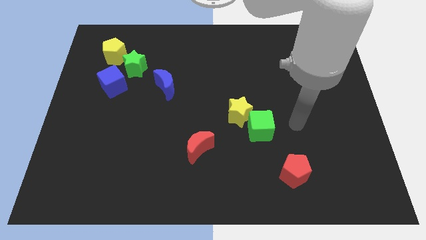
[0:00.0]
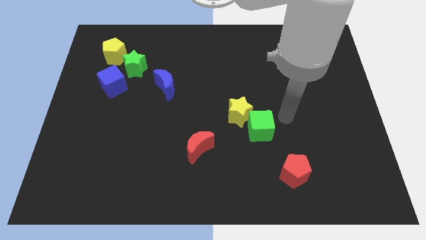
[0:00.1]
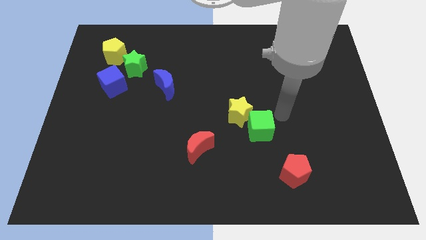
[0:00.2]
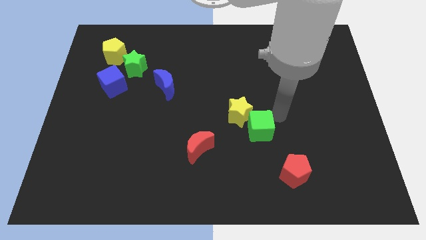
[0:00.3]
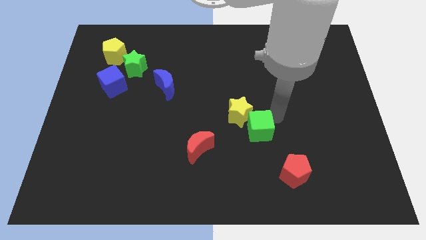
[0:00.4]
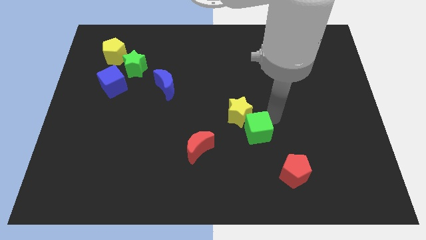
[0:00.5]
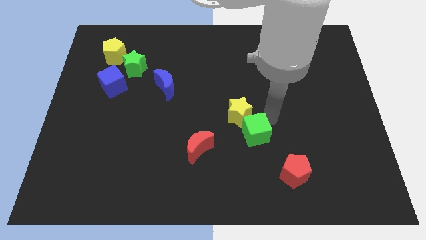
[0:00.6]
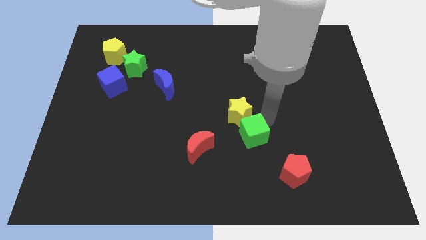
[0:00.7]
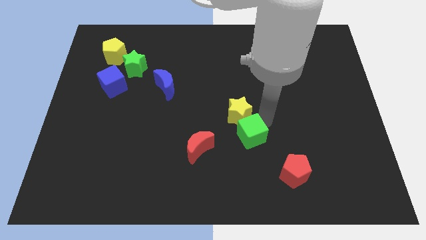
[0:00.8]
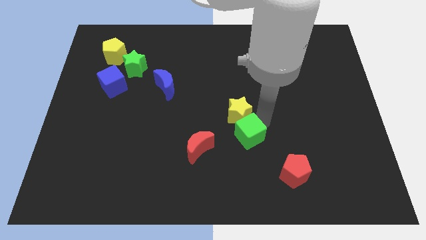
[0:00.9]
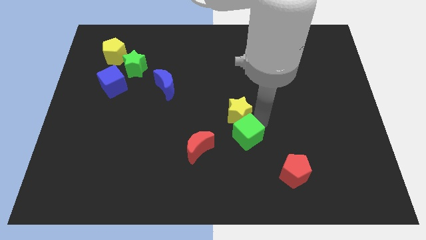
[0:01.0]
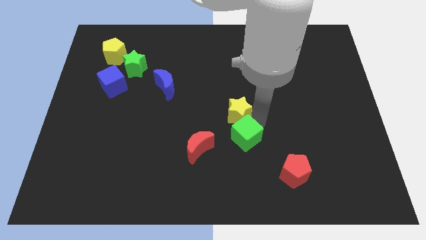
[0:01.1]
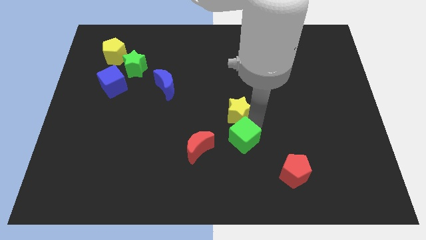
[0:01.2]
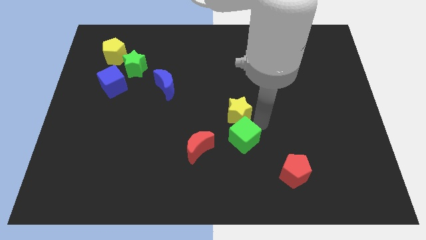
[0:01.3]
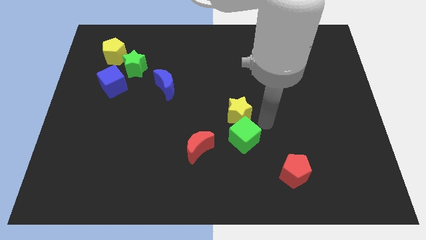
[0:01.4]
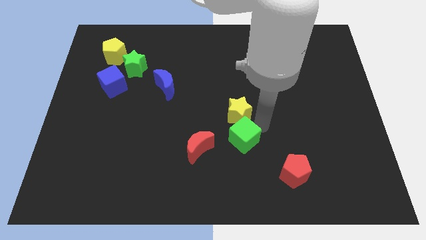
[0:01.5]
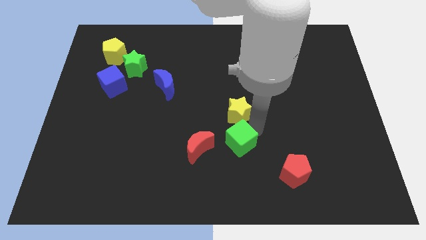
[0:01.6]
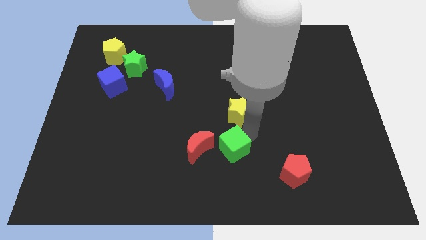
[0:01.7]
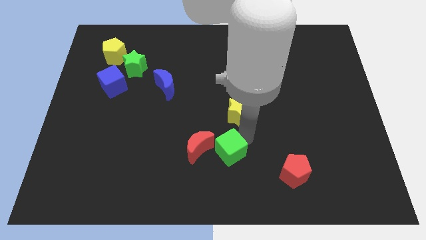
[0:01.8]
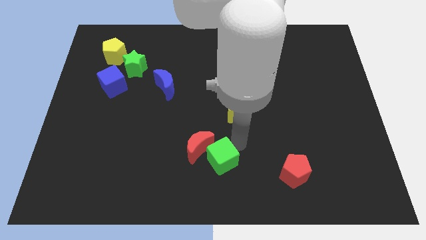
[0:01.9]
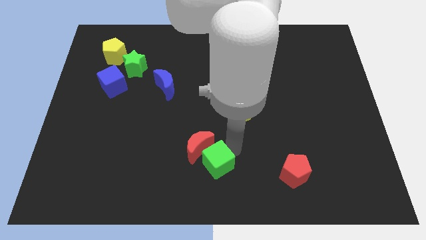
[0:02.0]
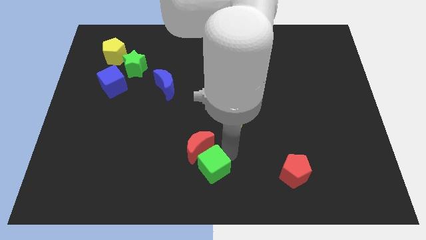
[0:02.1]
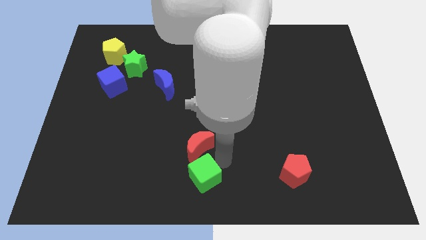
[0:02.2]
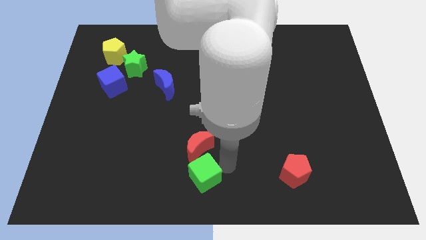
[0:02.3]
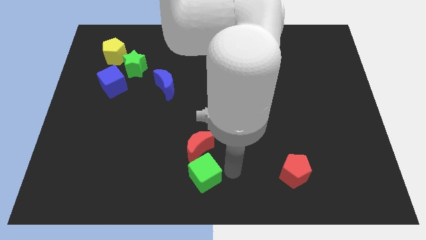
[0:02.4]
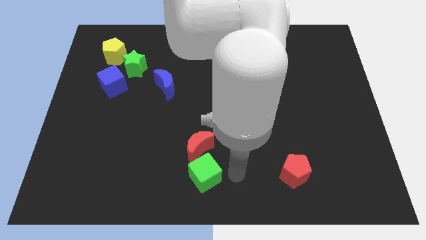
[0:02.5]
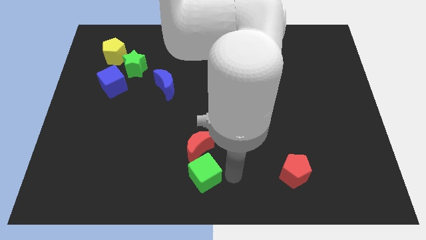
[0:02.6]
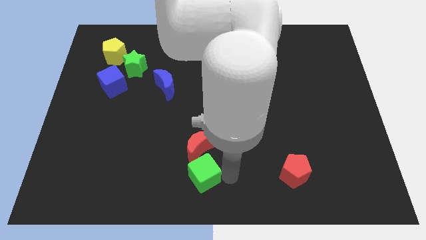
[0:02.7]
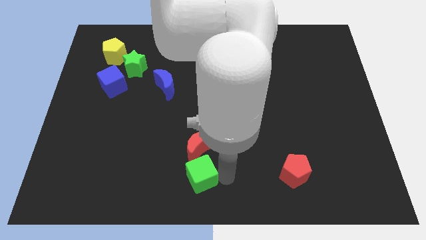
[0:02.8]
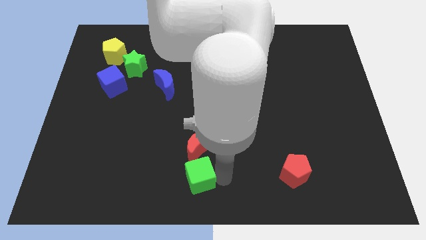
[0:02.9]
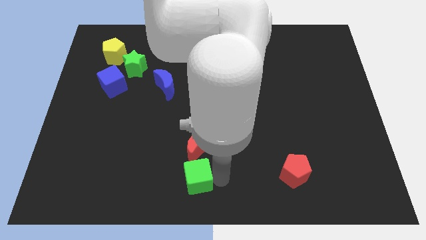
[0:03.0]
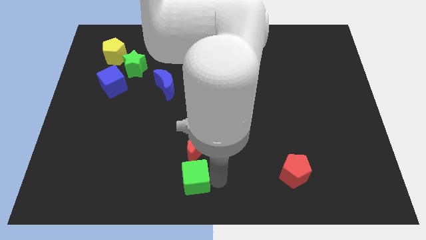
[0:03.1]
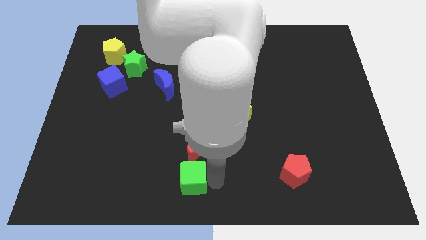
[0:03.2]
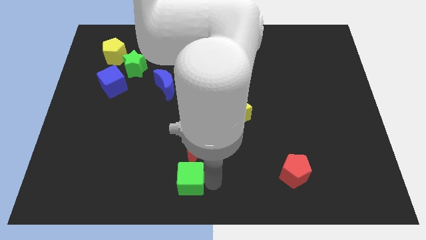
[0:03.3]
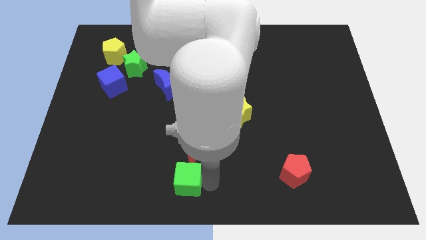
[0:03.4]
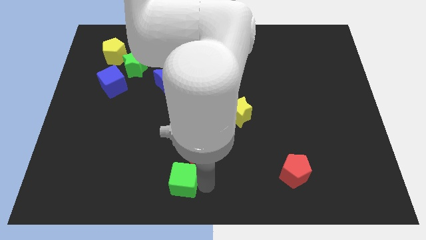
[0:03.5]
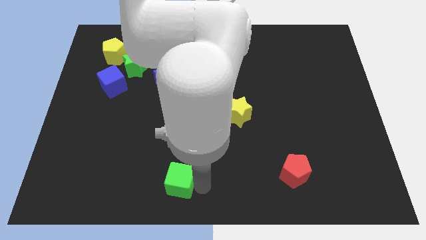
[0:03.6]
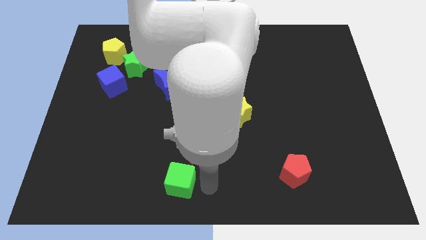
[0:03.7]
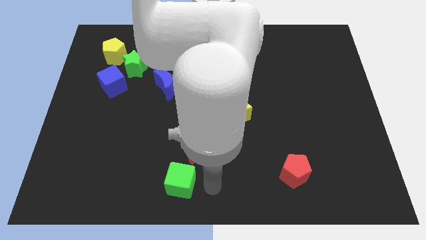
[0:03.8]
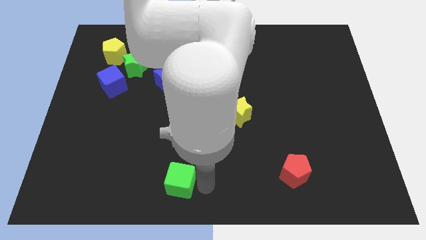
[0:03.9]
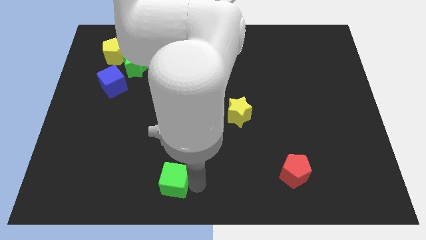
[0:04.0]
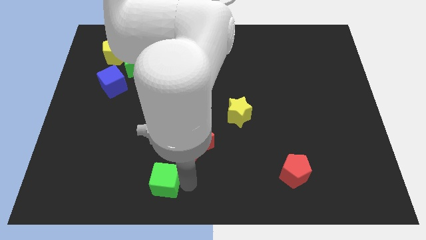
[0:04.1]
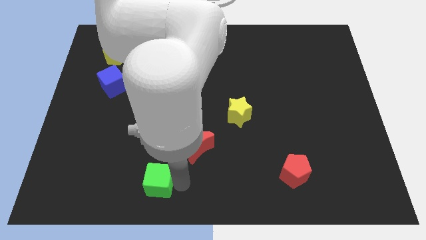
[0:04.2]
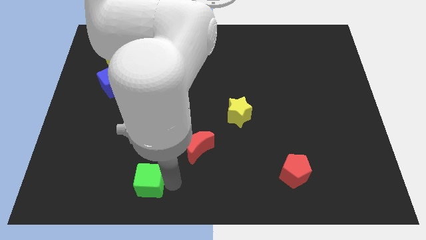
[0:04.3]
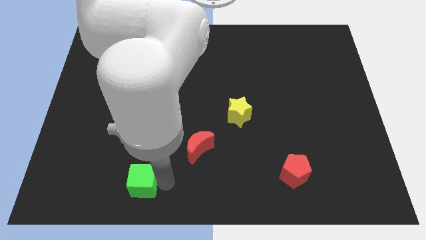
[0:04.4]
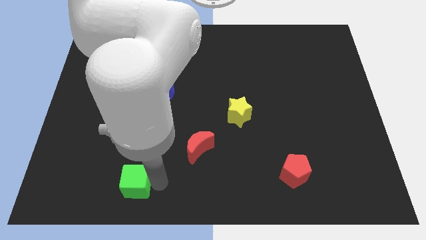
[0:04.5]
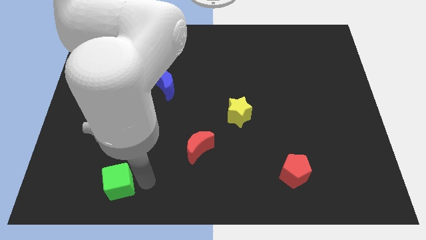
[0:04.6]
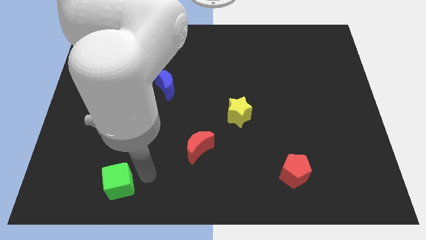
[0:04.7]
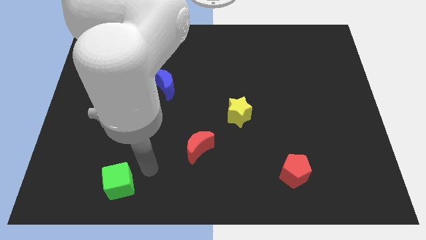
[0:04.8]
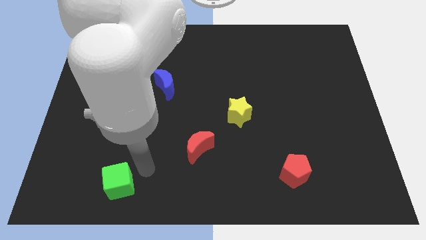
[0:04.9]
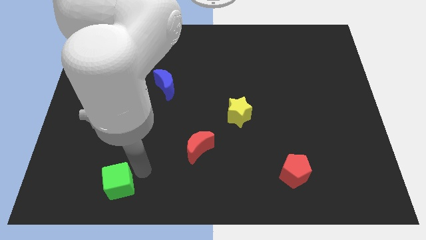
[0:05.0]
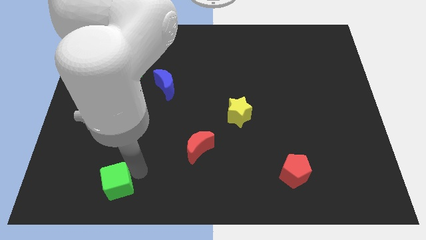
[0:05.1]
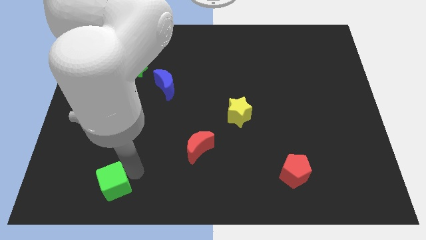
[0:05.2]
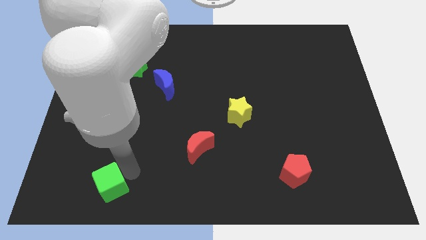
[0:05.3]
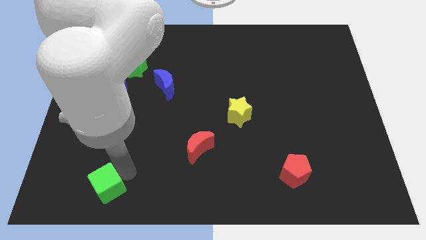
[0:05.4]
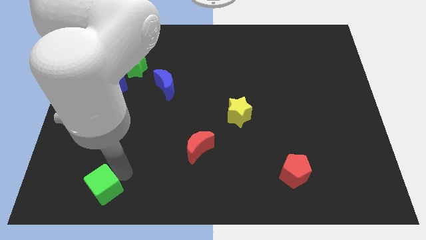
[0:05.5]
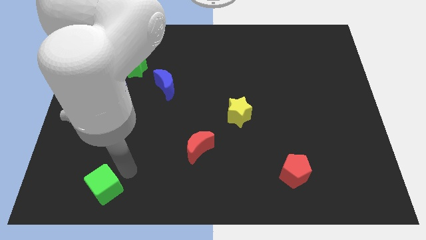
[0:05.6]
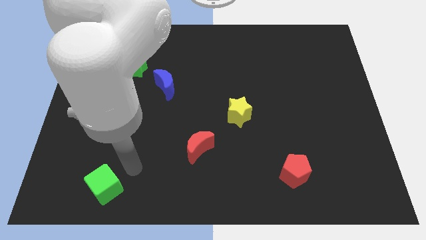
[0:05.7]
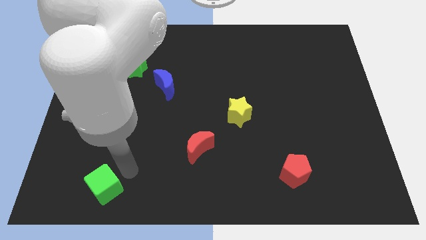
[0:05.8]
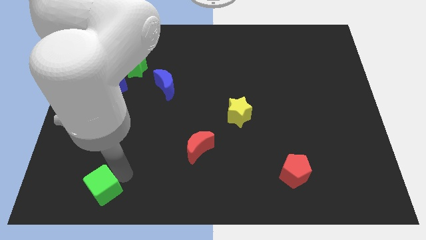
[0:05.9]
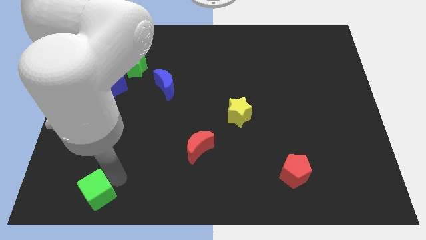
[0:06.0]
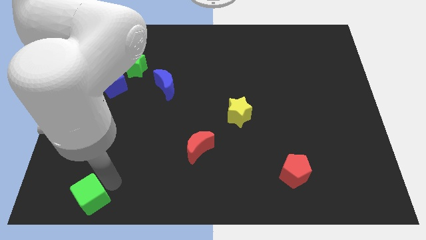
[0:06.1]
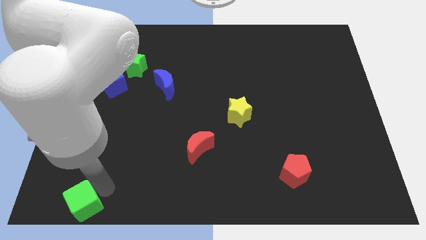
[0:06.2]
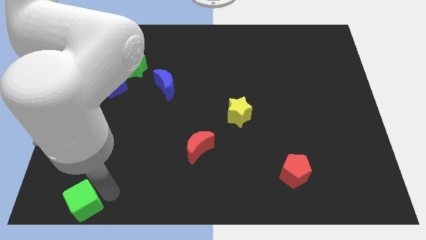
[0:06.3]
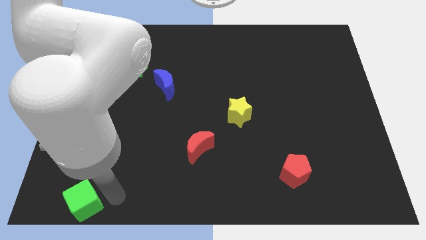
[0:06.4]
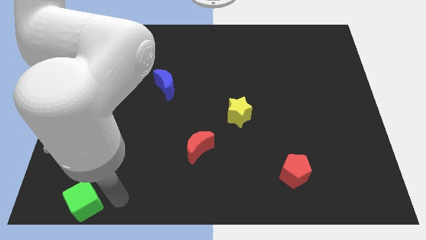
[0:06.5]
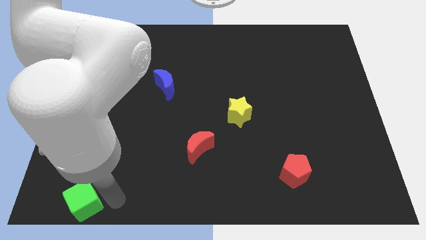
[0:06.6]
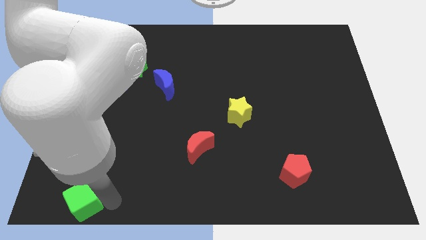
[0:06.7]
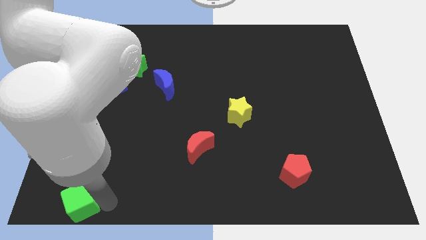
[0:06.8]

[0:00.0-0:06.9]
push the green cube to the bottom left
